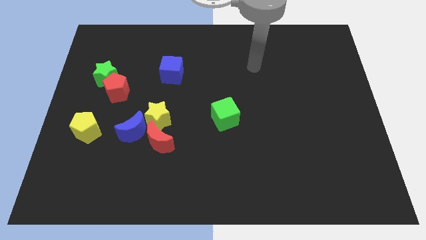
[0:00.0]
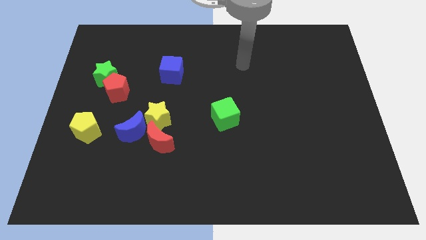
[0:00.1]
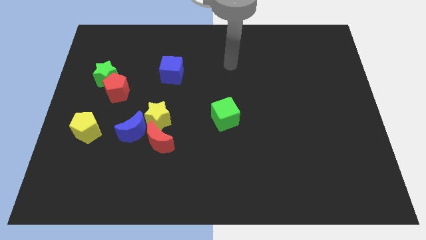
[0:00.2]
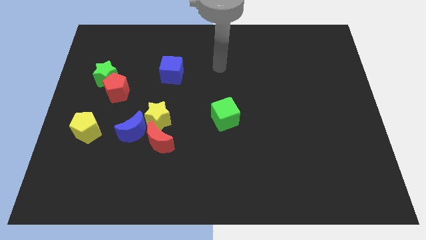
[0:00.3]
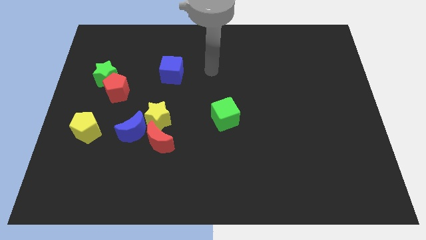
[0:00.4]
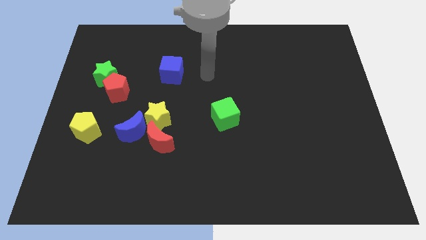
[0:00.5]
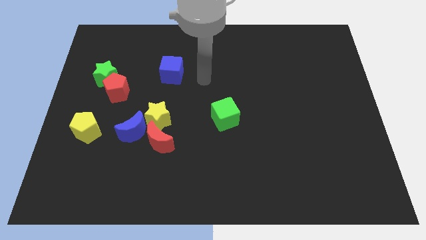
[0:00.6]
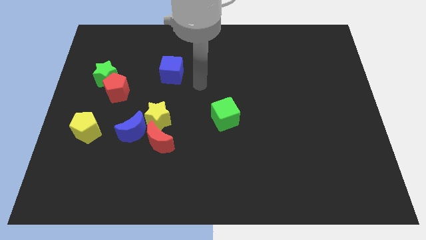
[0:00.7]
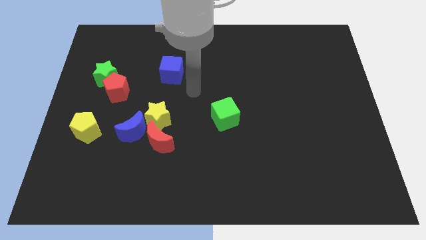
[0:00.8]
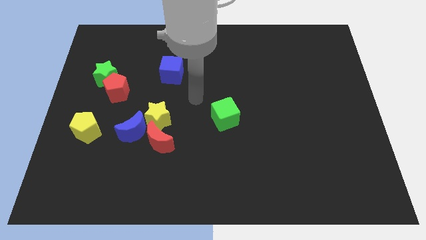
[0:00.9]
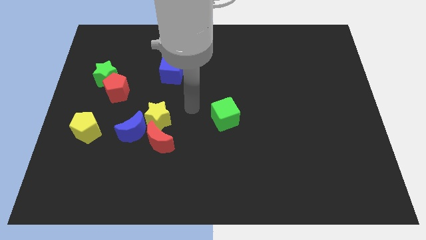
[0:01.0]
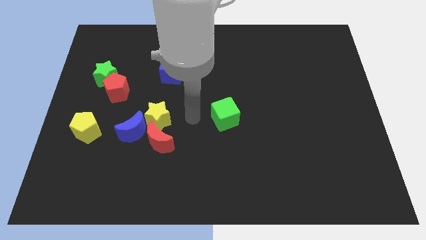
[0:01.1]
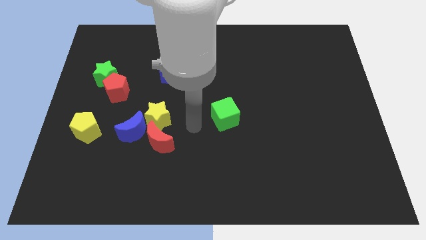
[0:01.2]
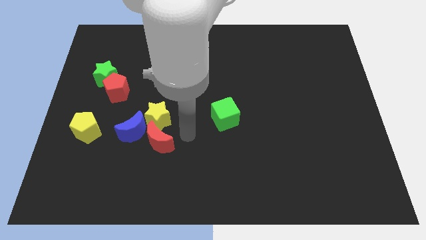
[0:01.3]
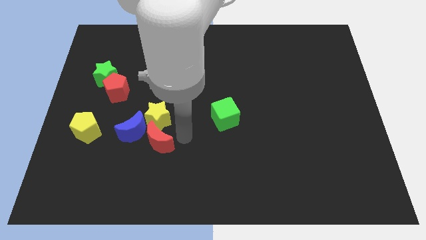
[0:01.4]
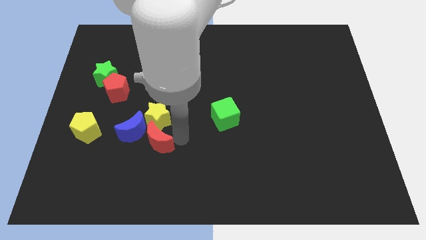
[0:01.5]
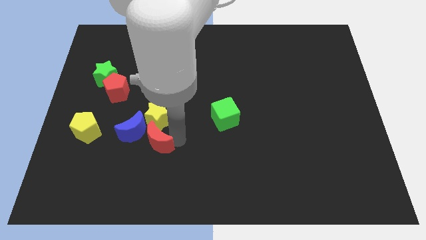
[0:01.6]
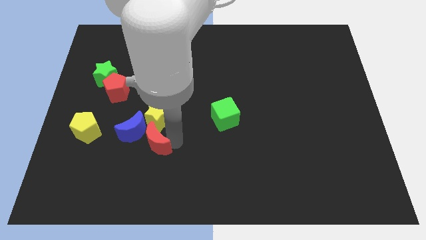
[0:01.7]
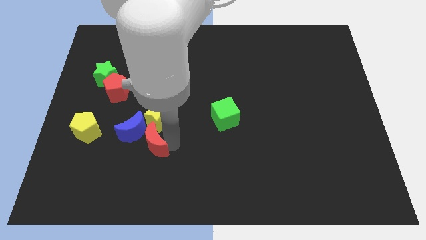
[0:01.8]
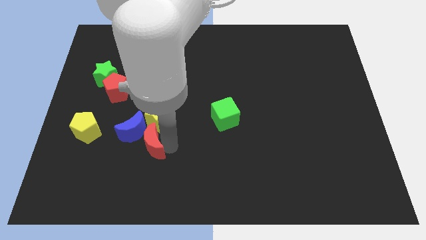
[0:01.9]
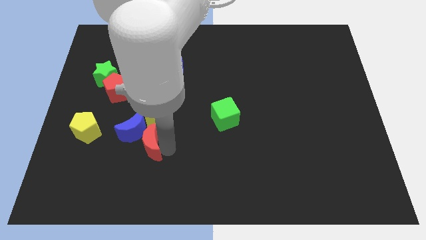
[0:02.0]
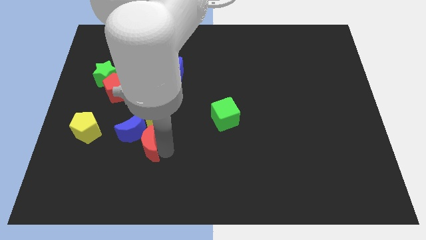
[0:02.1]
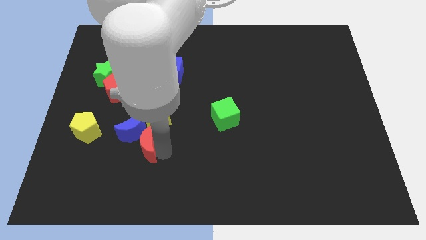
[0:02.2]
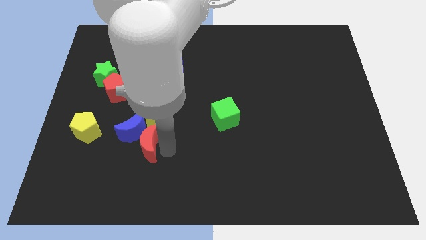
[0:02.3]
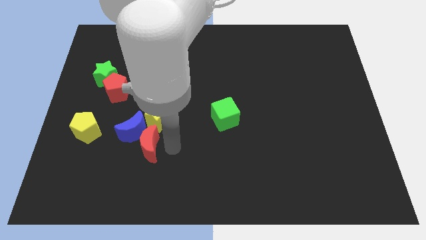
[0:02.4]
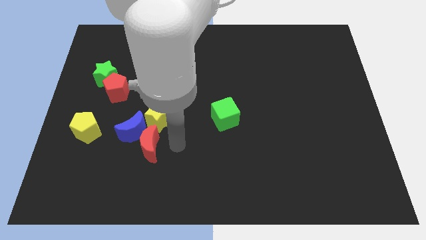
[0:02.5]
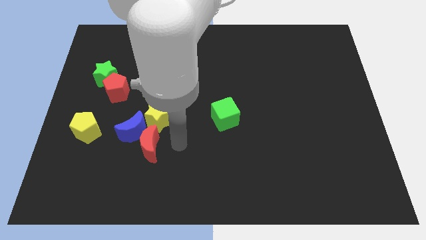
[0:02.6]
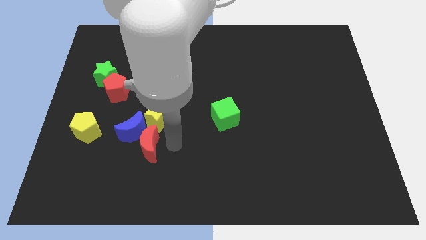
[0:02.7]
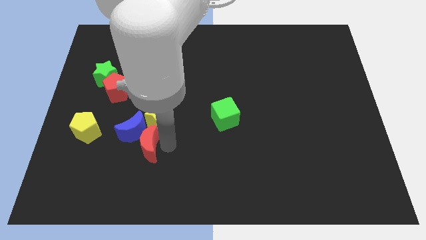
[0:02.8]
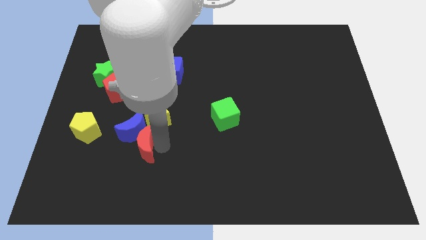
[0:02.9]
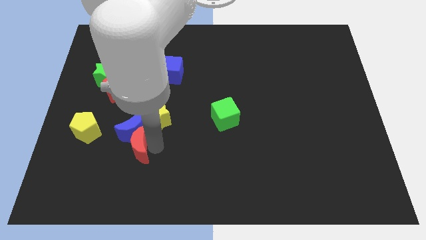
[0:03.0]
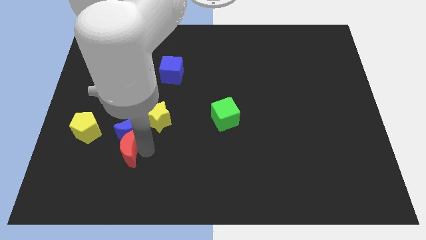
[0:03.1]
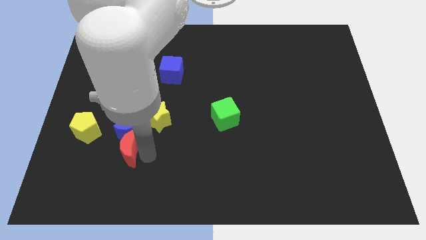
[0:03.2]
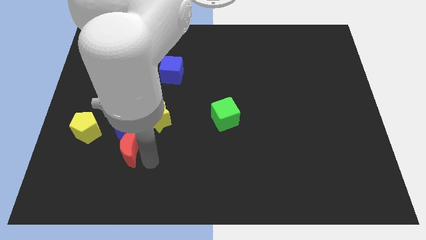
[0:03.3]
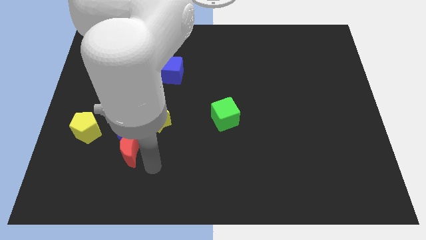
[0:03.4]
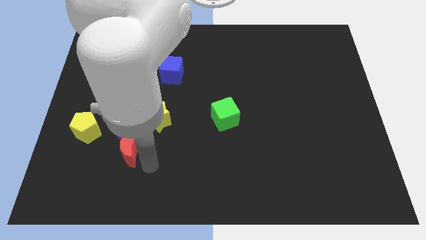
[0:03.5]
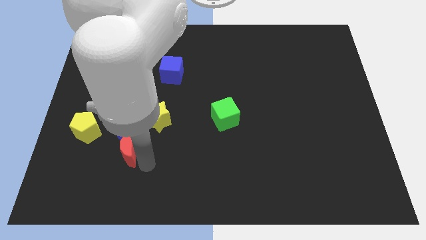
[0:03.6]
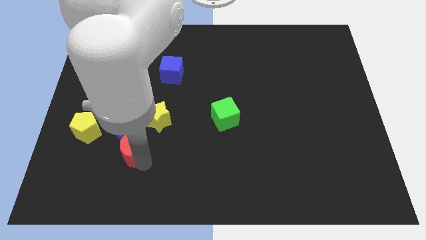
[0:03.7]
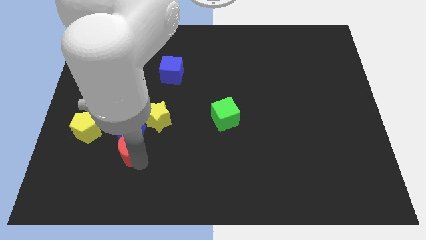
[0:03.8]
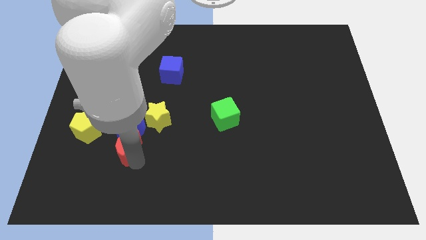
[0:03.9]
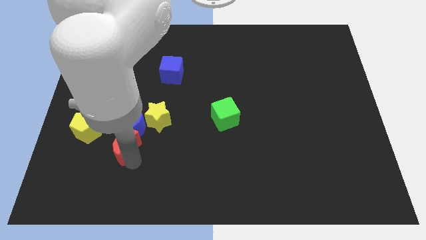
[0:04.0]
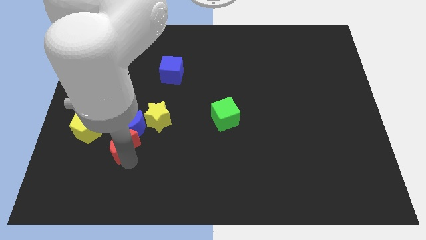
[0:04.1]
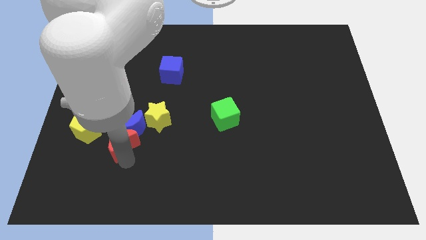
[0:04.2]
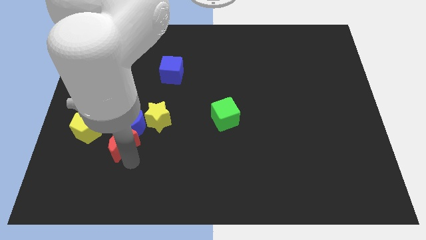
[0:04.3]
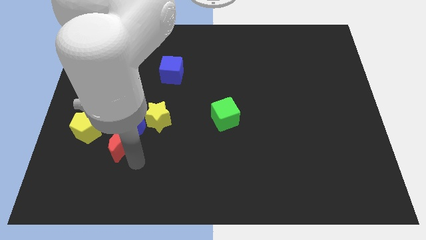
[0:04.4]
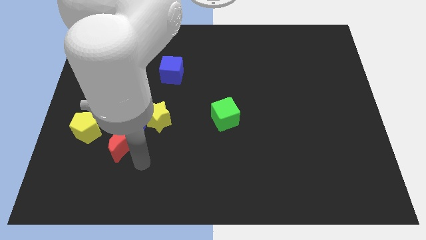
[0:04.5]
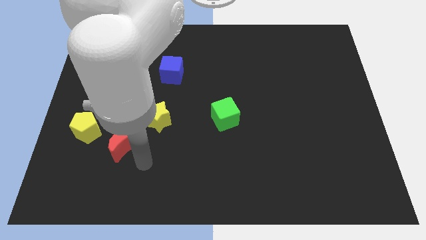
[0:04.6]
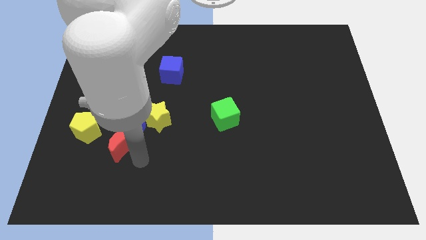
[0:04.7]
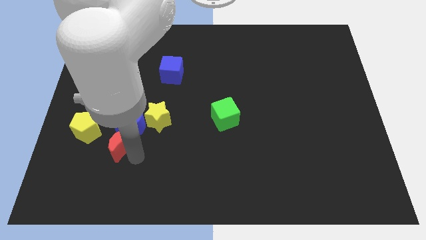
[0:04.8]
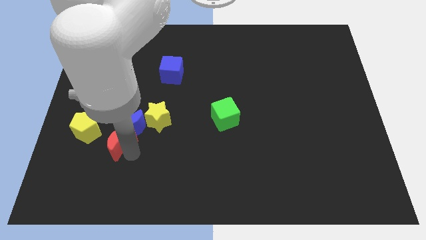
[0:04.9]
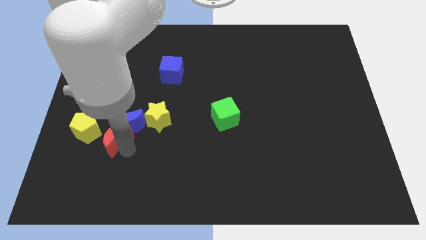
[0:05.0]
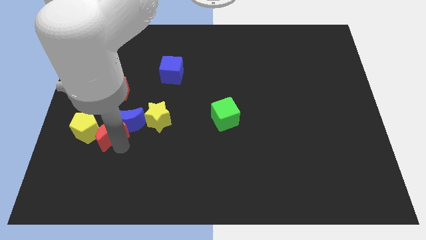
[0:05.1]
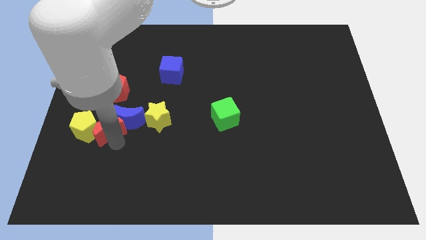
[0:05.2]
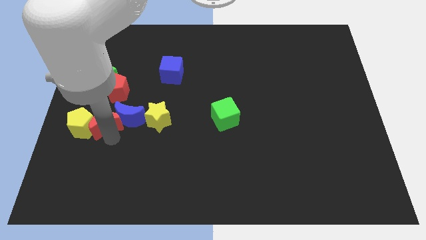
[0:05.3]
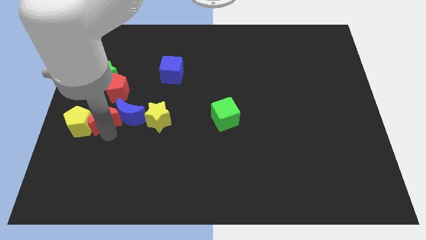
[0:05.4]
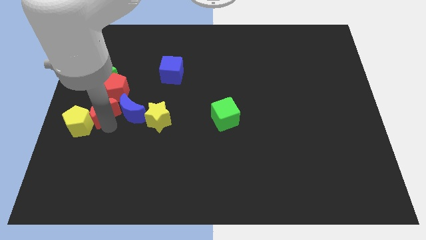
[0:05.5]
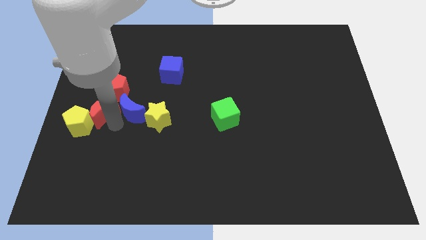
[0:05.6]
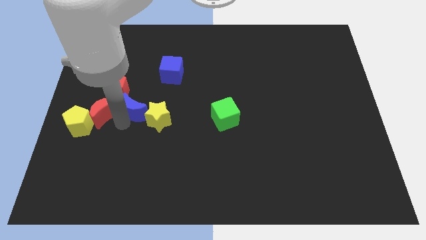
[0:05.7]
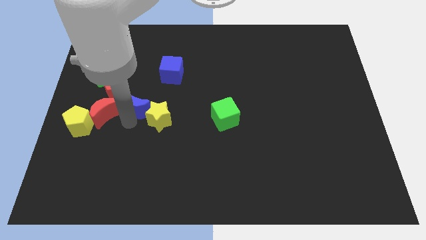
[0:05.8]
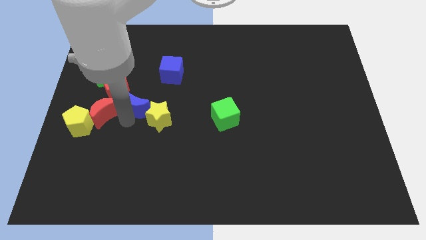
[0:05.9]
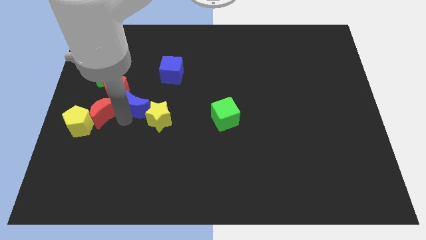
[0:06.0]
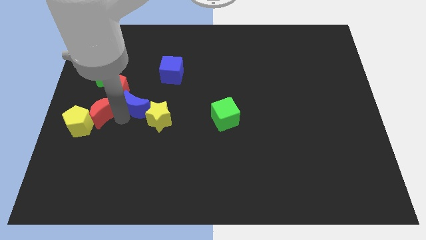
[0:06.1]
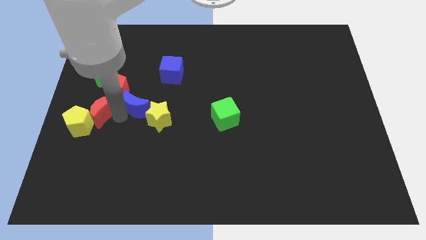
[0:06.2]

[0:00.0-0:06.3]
slide the red moon to the left side

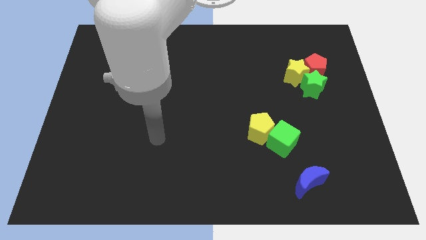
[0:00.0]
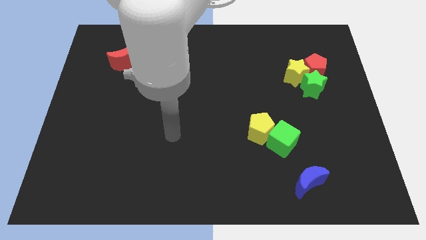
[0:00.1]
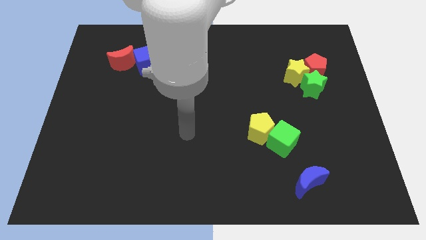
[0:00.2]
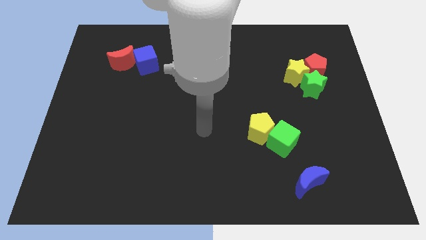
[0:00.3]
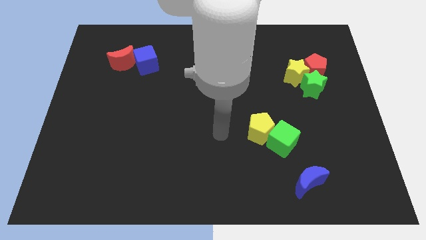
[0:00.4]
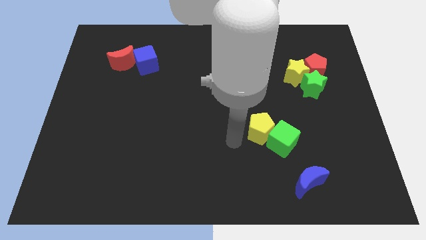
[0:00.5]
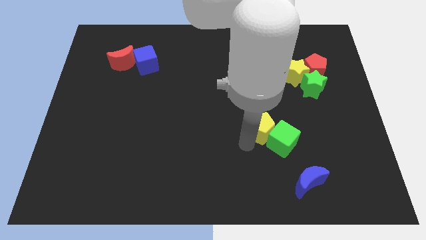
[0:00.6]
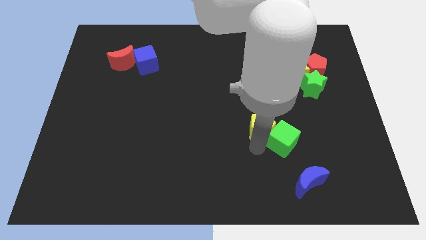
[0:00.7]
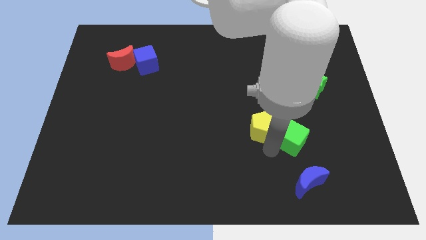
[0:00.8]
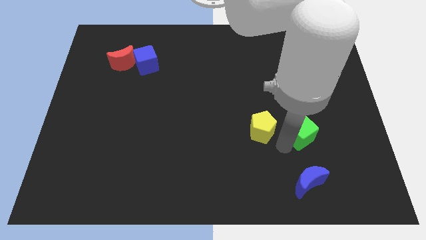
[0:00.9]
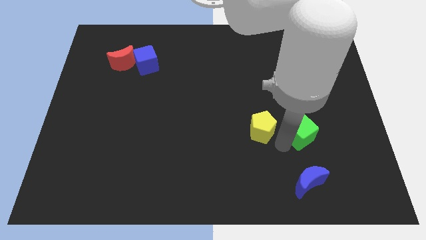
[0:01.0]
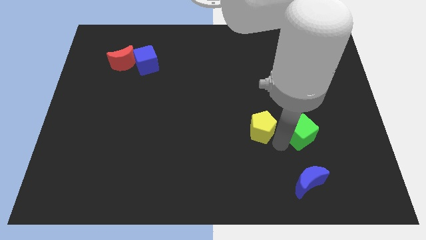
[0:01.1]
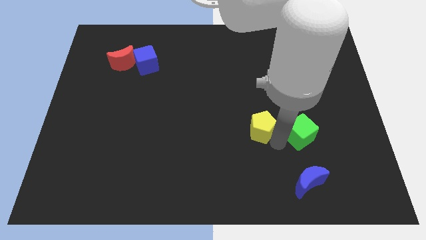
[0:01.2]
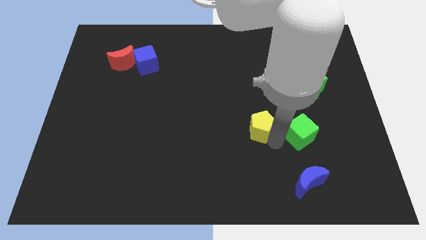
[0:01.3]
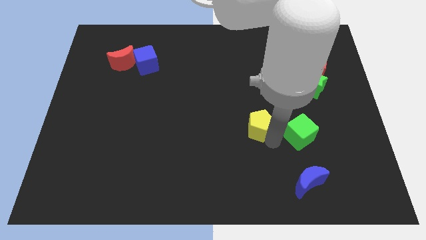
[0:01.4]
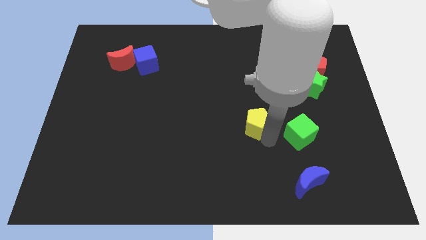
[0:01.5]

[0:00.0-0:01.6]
slide the yellow pentagon to the middle

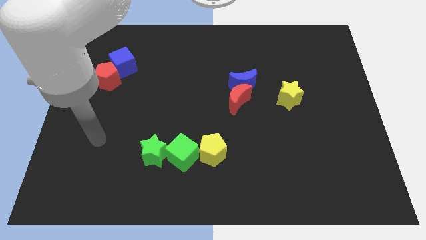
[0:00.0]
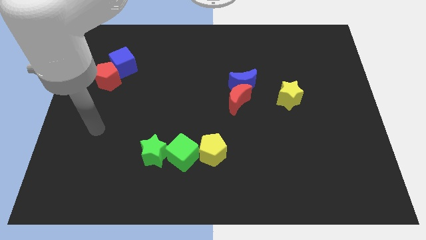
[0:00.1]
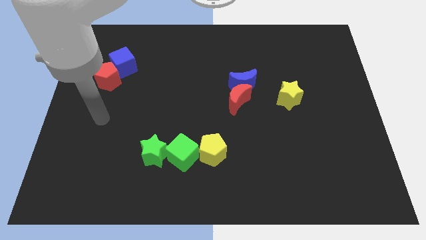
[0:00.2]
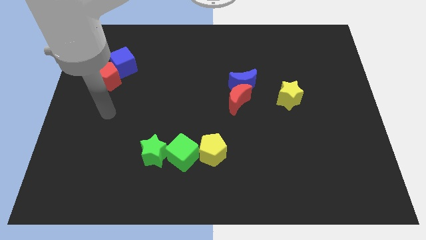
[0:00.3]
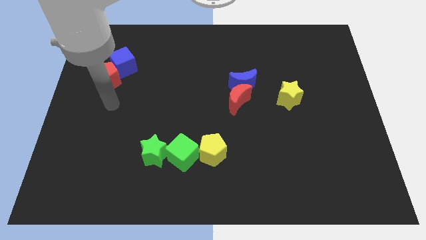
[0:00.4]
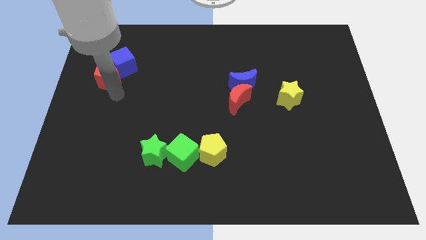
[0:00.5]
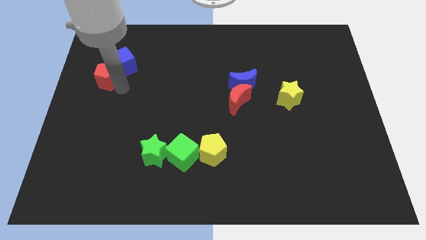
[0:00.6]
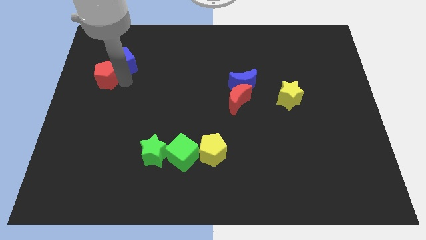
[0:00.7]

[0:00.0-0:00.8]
push the red pentagon to the left side of the board
